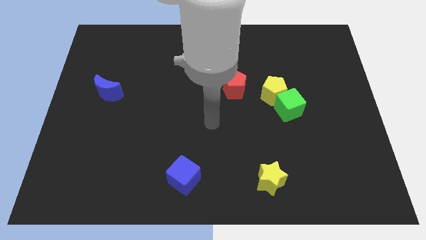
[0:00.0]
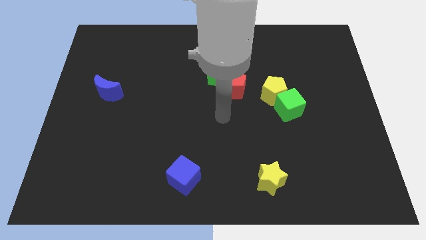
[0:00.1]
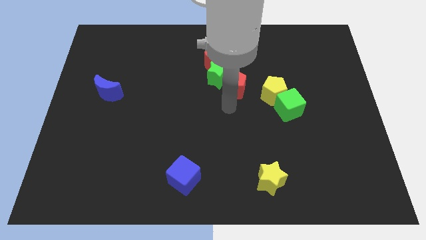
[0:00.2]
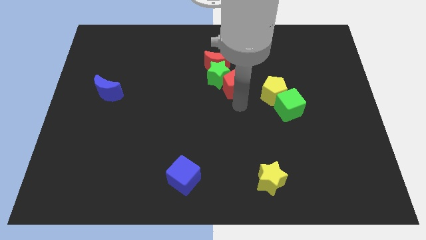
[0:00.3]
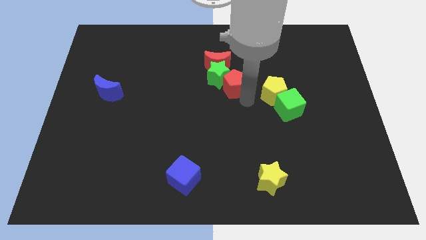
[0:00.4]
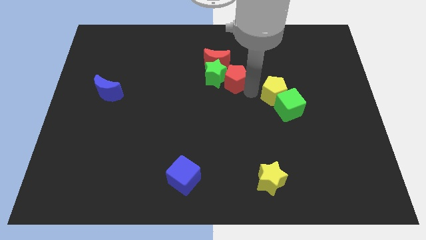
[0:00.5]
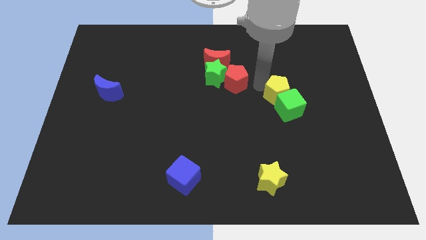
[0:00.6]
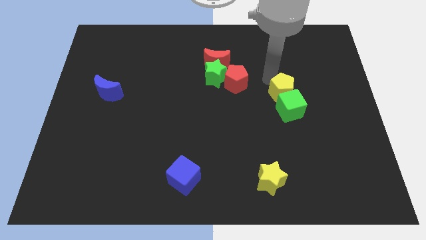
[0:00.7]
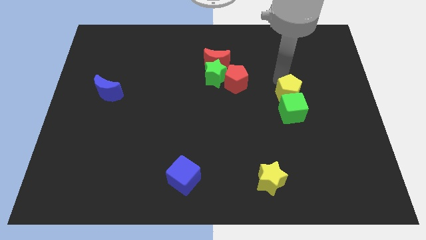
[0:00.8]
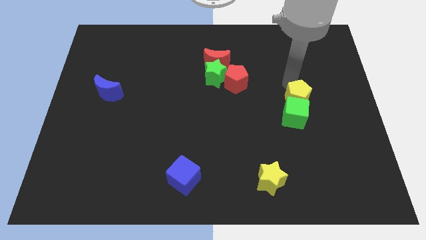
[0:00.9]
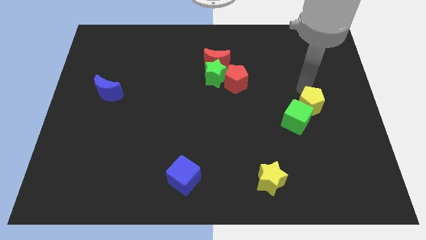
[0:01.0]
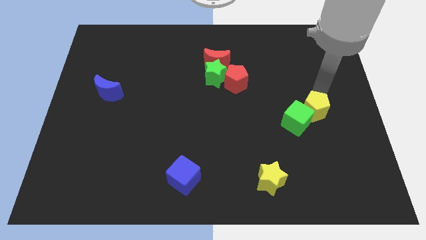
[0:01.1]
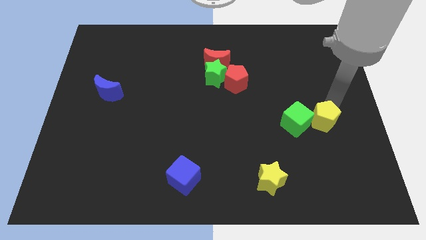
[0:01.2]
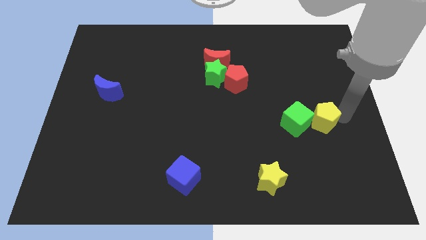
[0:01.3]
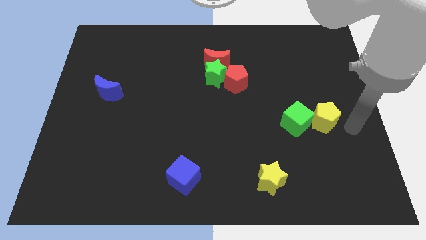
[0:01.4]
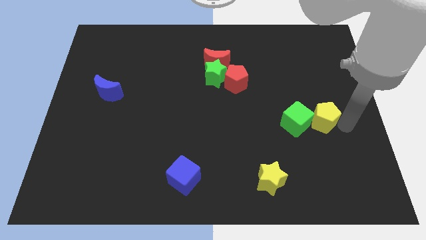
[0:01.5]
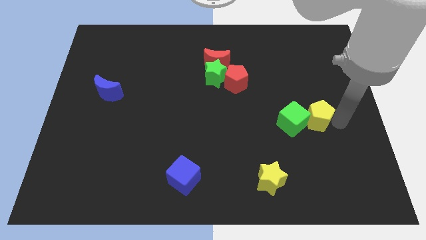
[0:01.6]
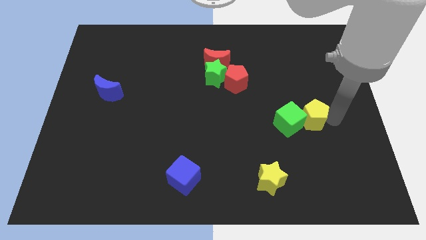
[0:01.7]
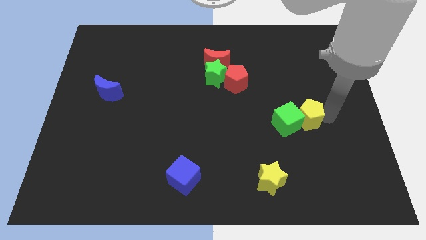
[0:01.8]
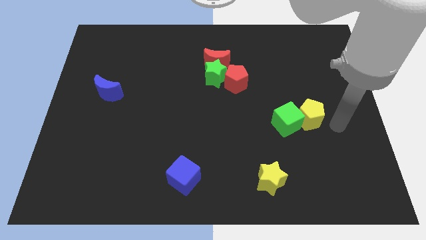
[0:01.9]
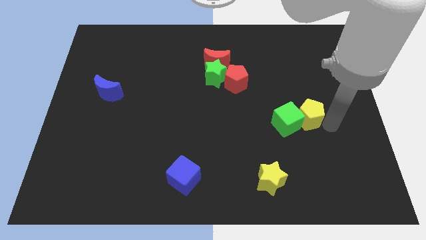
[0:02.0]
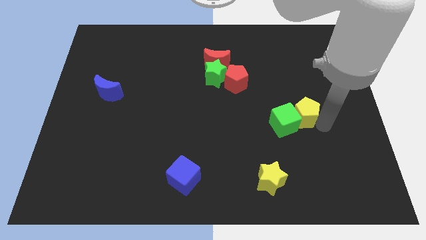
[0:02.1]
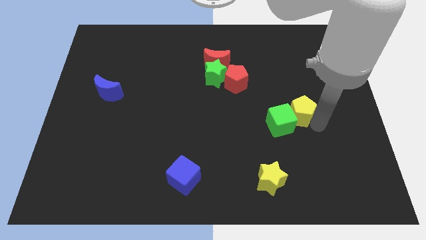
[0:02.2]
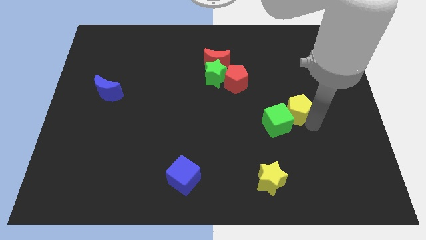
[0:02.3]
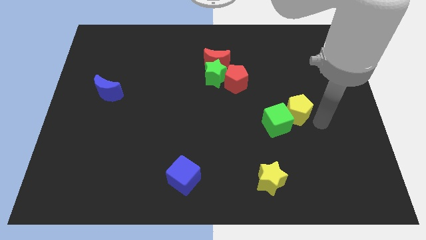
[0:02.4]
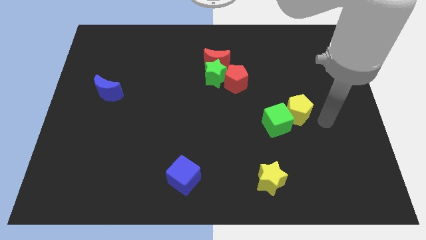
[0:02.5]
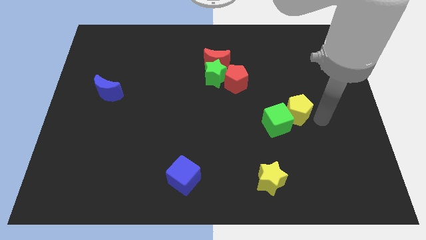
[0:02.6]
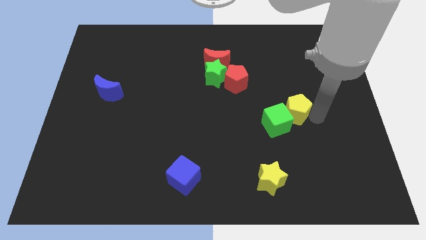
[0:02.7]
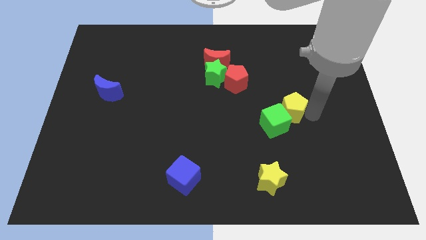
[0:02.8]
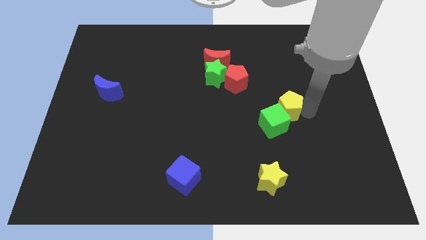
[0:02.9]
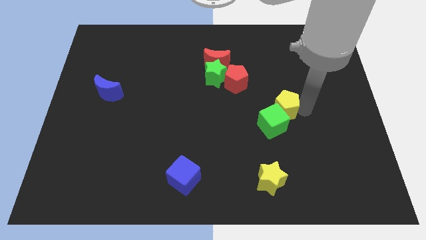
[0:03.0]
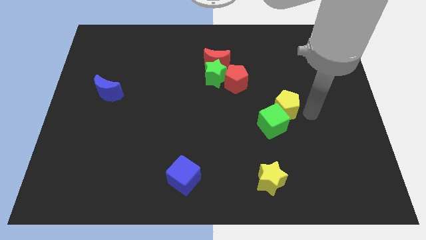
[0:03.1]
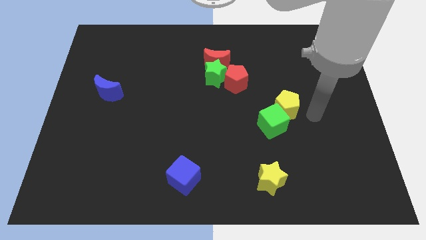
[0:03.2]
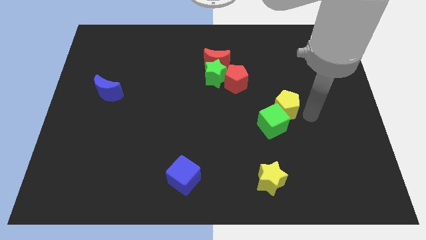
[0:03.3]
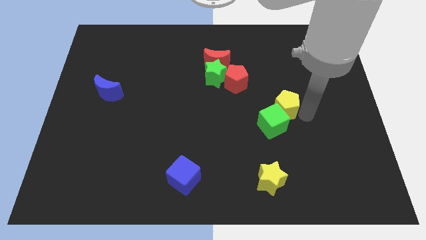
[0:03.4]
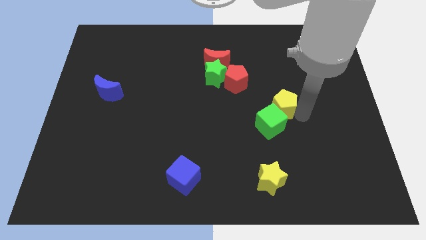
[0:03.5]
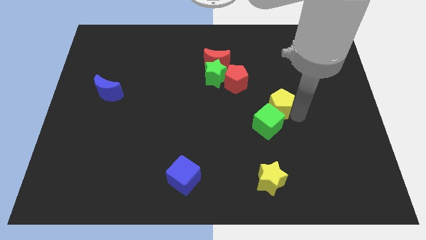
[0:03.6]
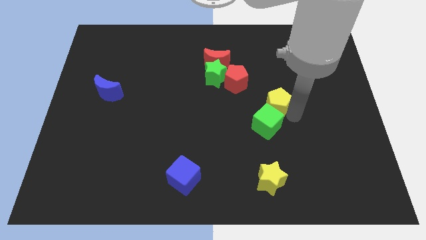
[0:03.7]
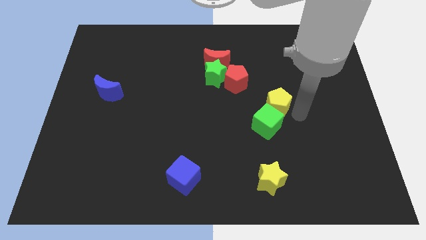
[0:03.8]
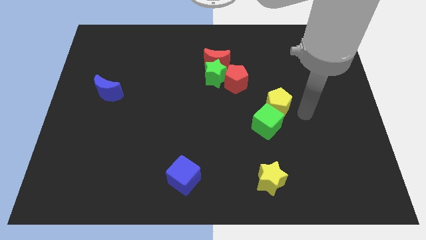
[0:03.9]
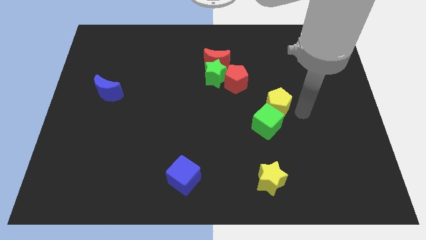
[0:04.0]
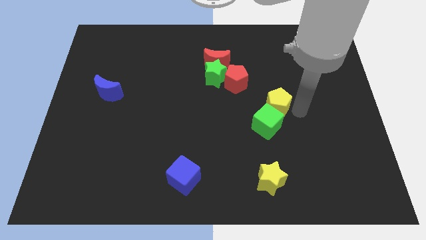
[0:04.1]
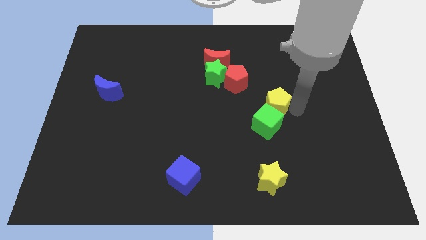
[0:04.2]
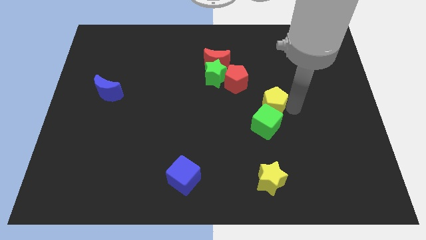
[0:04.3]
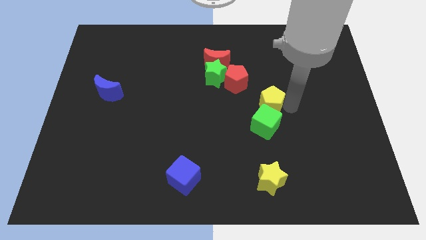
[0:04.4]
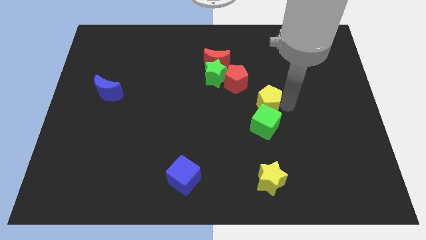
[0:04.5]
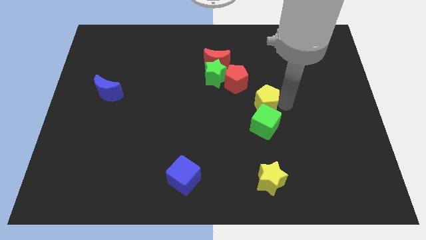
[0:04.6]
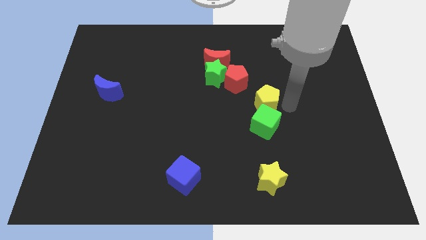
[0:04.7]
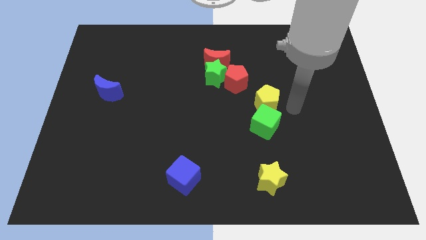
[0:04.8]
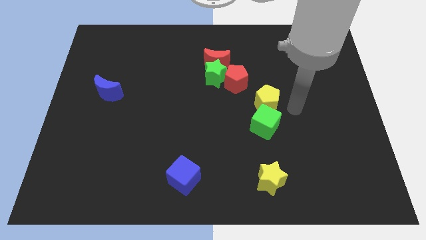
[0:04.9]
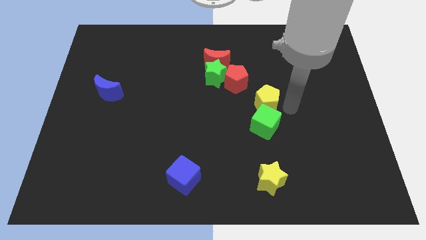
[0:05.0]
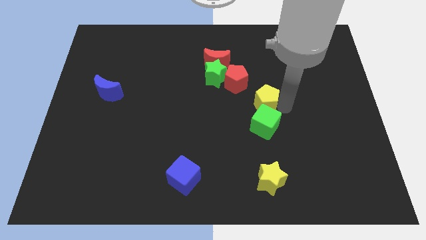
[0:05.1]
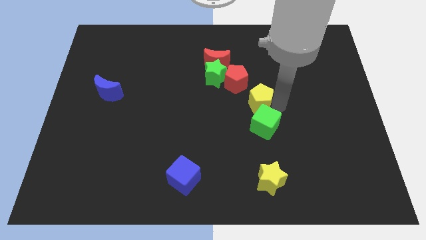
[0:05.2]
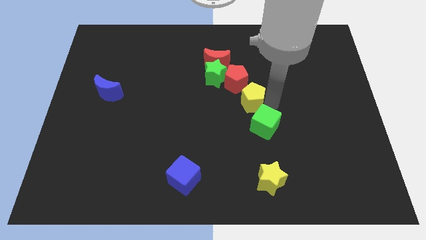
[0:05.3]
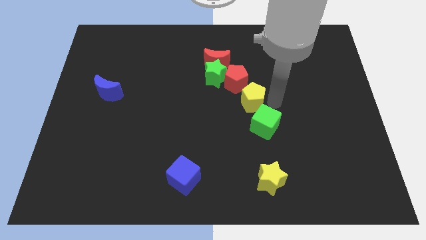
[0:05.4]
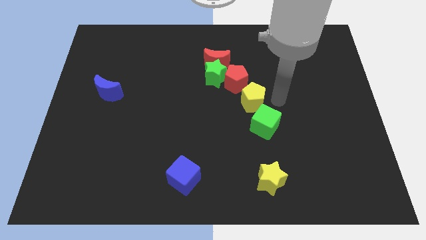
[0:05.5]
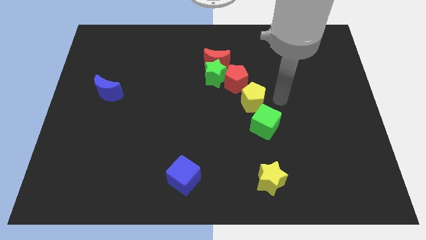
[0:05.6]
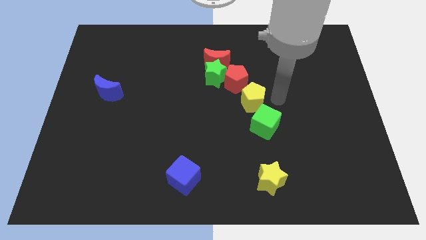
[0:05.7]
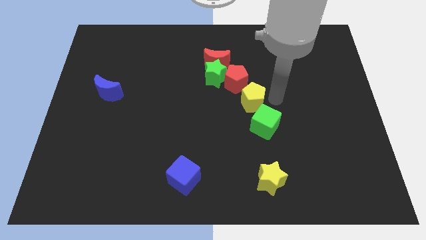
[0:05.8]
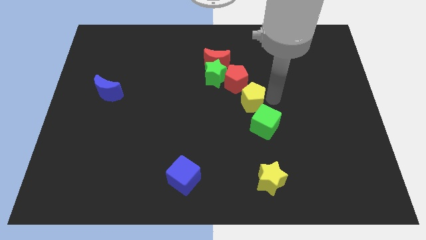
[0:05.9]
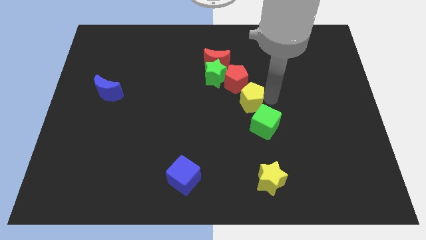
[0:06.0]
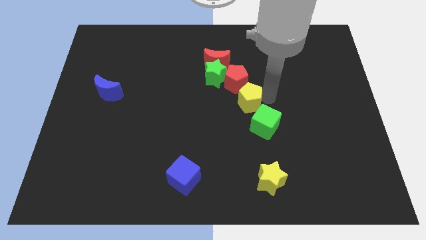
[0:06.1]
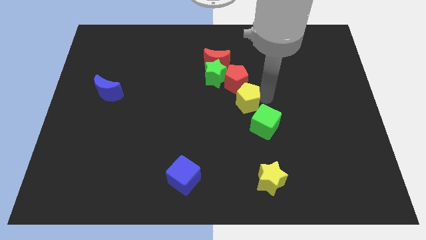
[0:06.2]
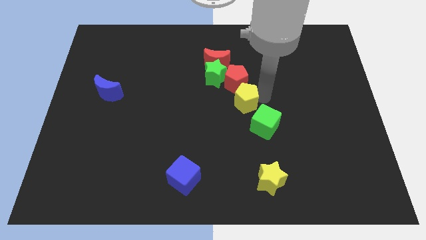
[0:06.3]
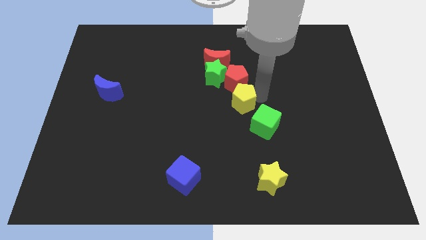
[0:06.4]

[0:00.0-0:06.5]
move the yellow pentagon somewhat to the left

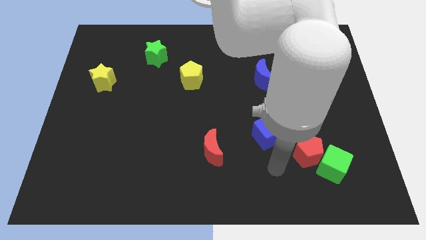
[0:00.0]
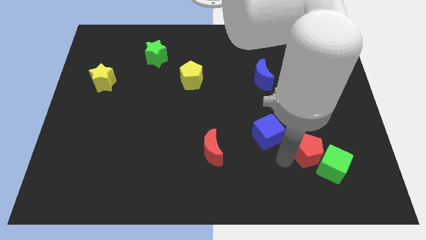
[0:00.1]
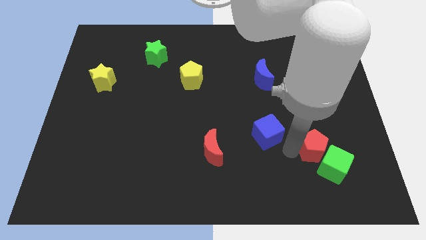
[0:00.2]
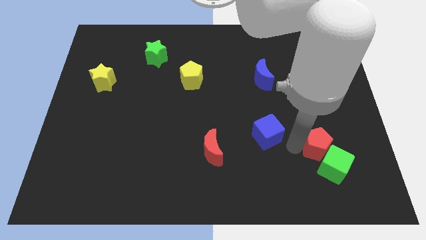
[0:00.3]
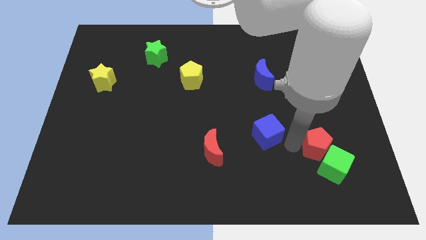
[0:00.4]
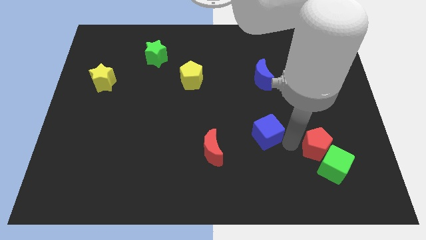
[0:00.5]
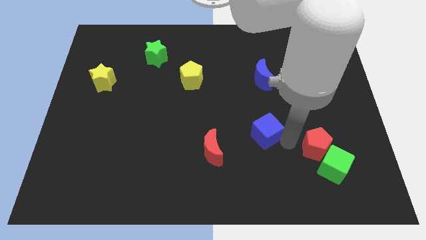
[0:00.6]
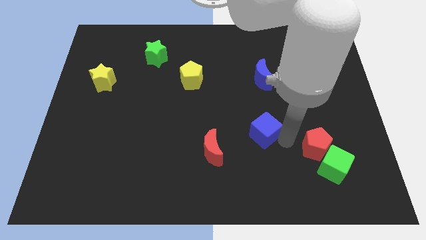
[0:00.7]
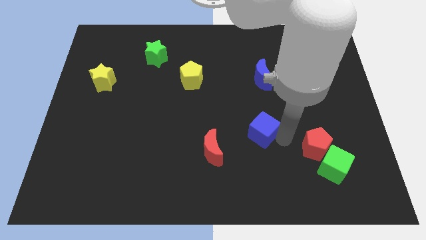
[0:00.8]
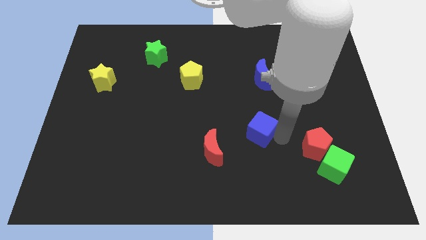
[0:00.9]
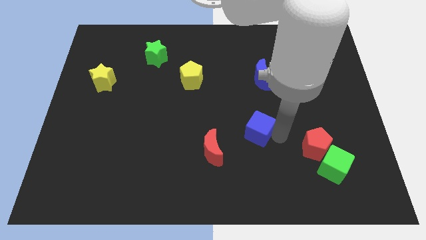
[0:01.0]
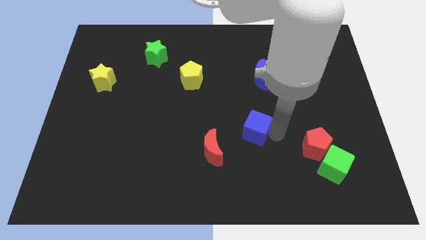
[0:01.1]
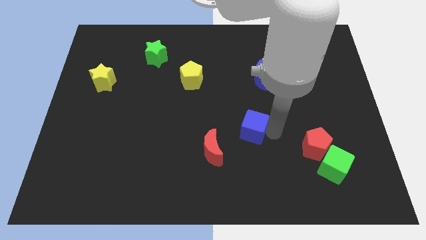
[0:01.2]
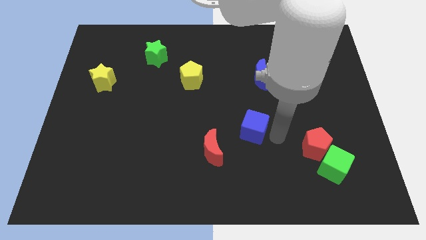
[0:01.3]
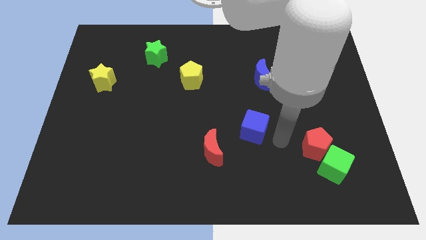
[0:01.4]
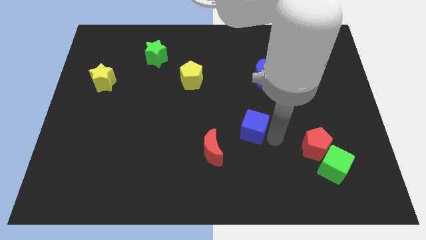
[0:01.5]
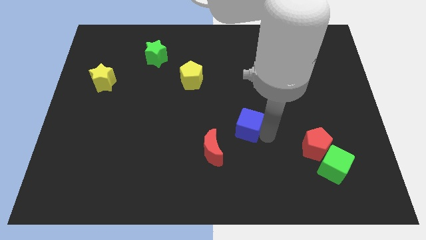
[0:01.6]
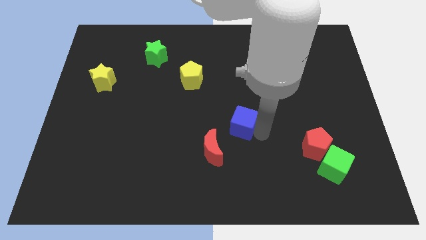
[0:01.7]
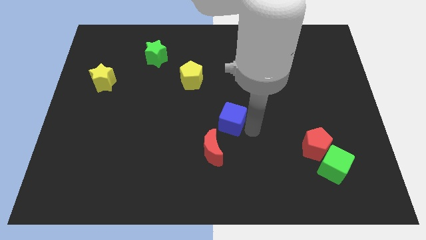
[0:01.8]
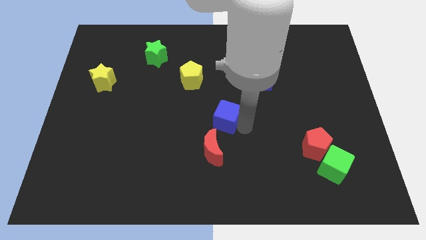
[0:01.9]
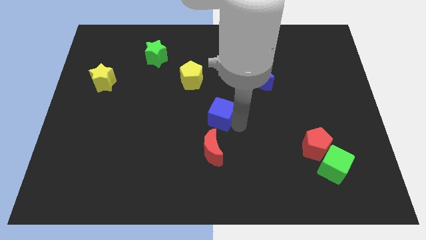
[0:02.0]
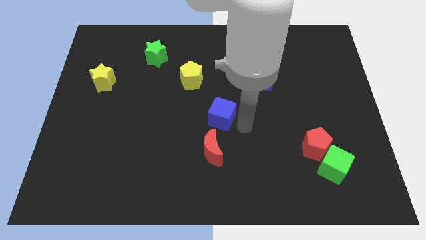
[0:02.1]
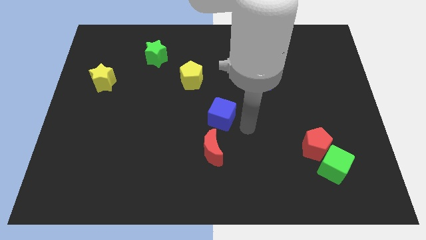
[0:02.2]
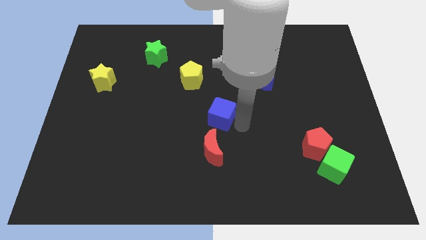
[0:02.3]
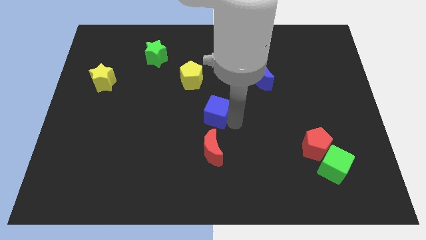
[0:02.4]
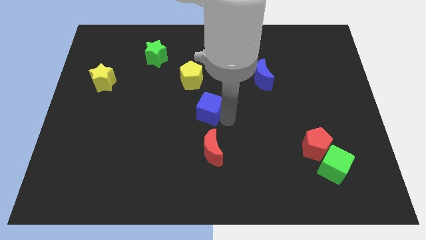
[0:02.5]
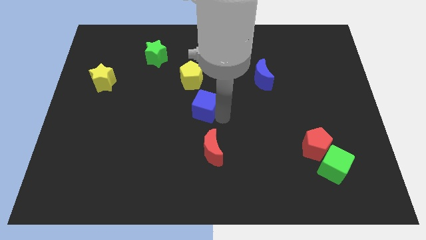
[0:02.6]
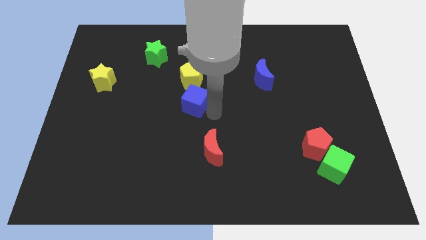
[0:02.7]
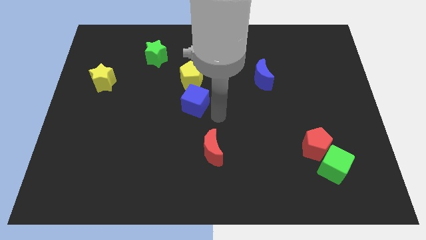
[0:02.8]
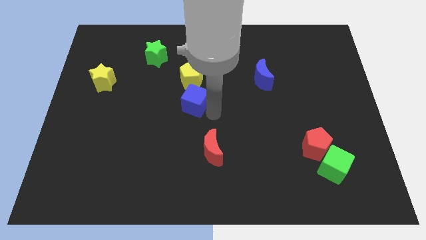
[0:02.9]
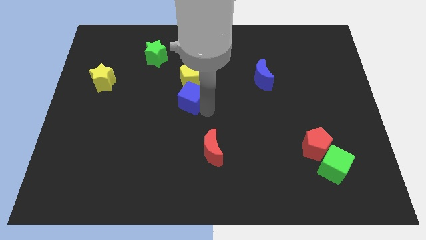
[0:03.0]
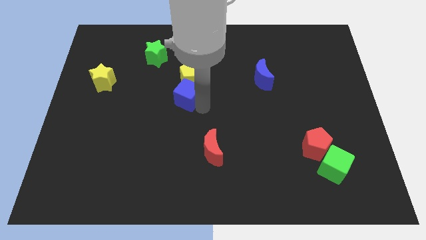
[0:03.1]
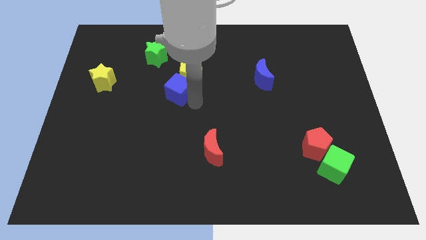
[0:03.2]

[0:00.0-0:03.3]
push the blue cube up and left diagonally
